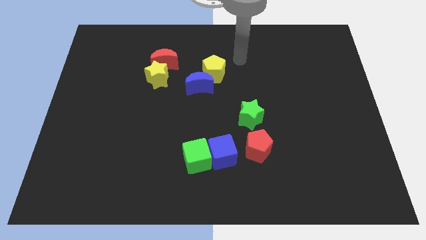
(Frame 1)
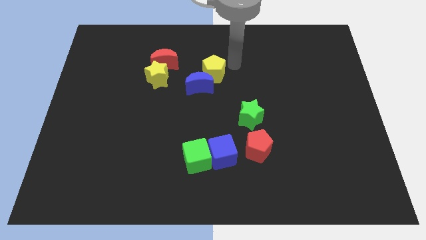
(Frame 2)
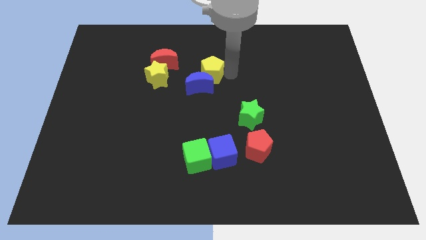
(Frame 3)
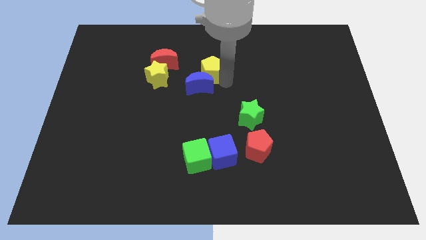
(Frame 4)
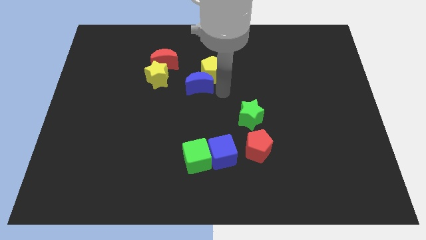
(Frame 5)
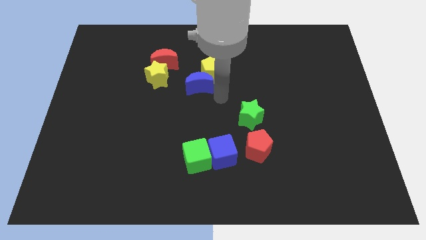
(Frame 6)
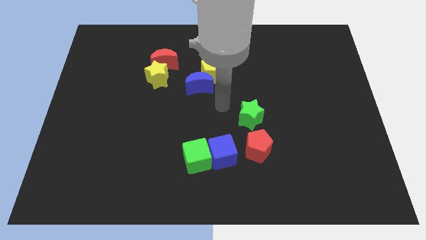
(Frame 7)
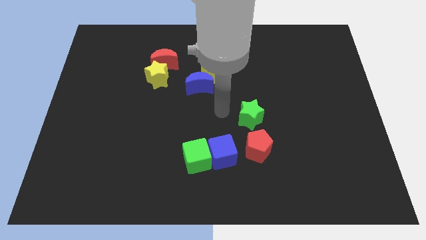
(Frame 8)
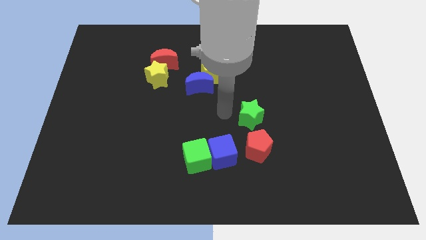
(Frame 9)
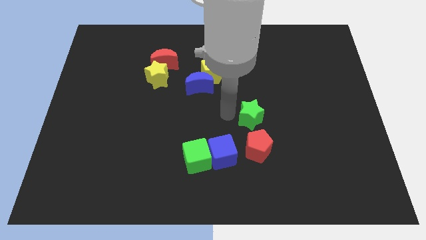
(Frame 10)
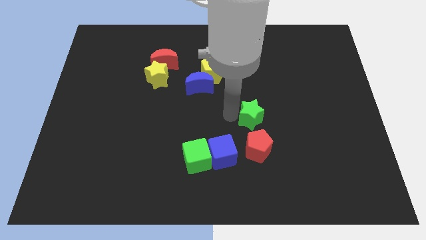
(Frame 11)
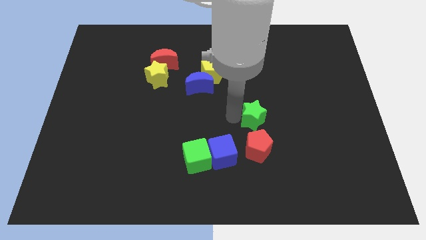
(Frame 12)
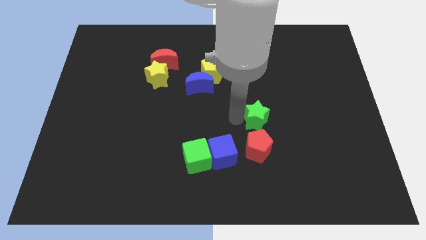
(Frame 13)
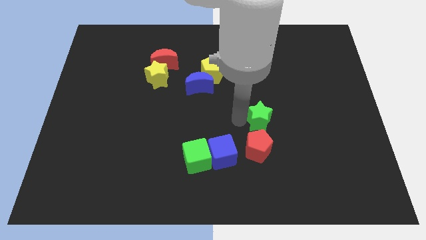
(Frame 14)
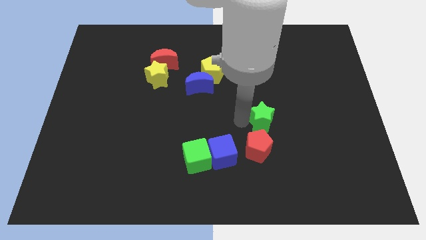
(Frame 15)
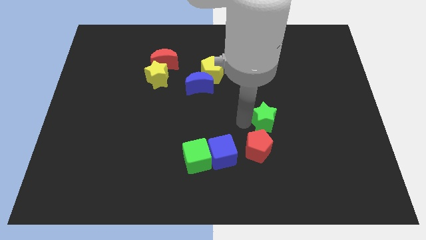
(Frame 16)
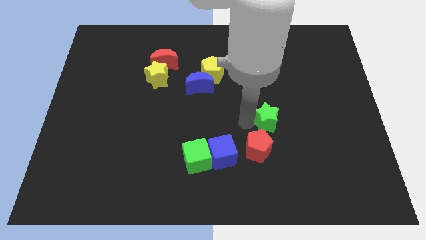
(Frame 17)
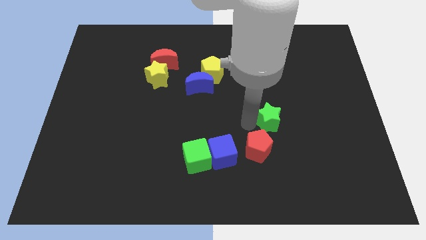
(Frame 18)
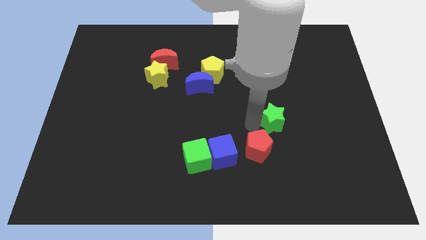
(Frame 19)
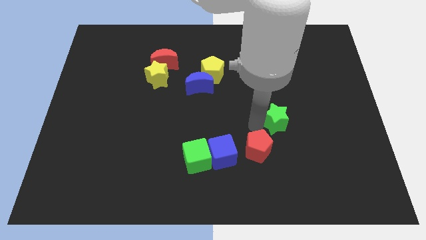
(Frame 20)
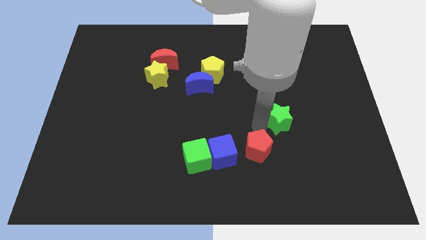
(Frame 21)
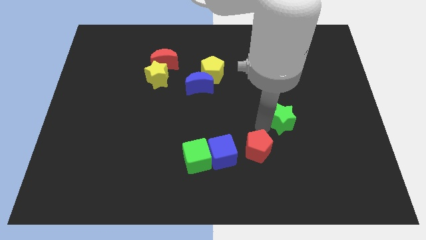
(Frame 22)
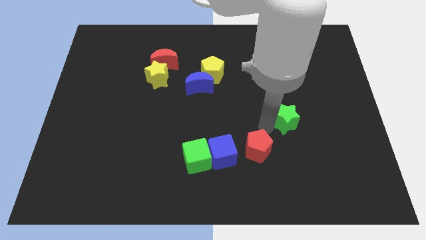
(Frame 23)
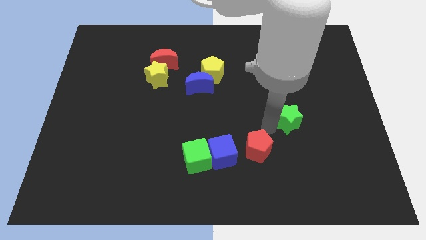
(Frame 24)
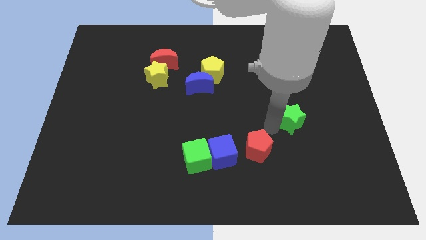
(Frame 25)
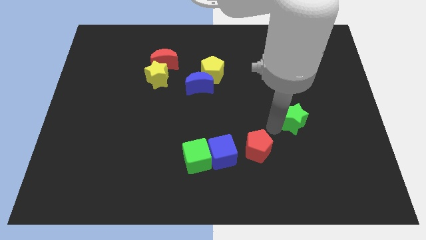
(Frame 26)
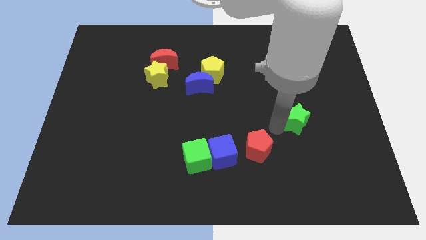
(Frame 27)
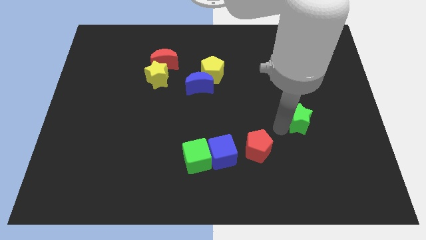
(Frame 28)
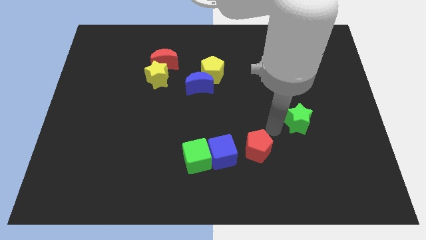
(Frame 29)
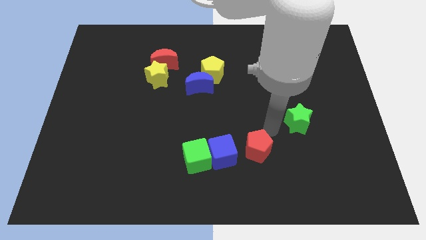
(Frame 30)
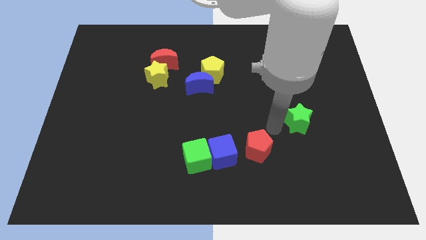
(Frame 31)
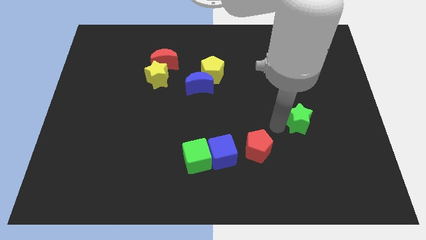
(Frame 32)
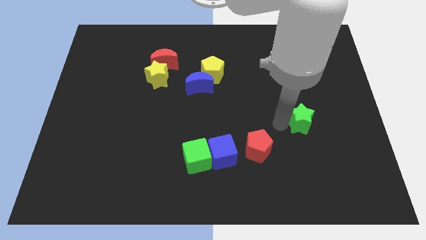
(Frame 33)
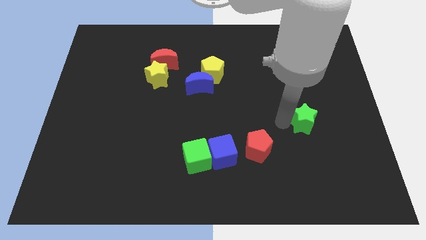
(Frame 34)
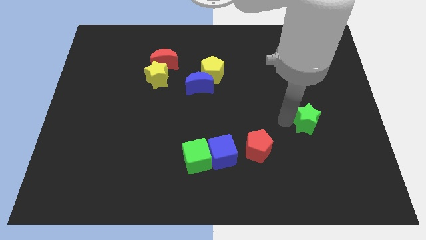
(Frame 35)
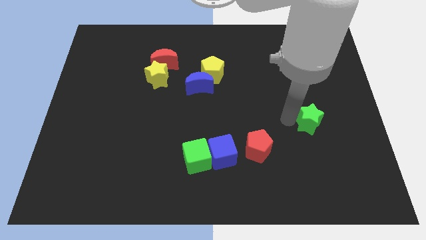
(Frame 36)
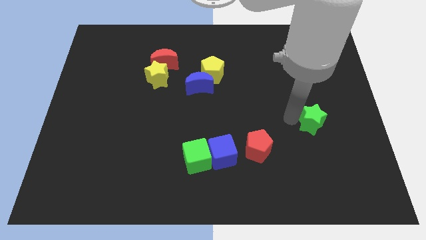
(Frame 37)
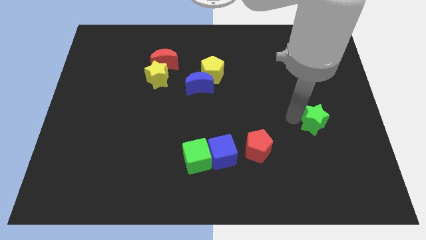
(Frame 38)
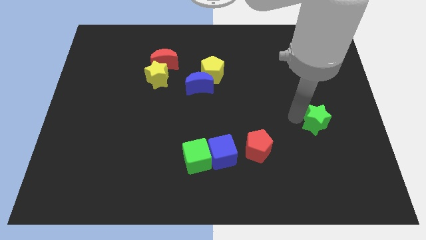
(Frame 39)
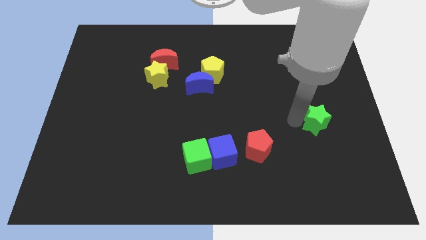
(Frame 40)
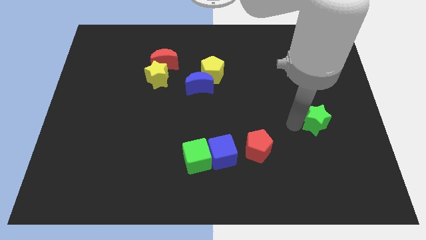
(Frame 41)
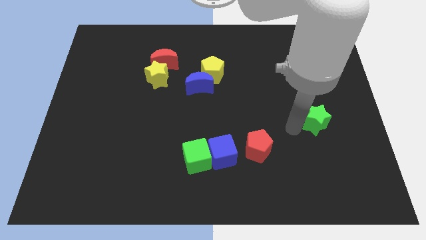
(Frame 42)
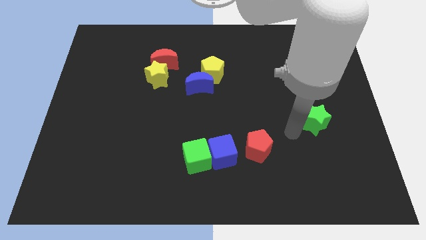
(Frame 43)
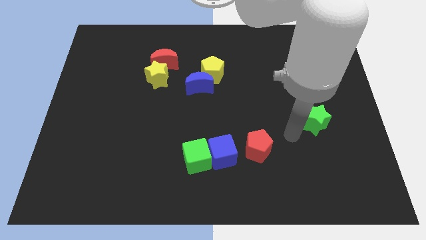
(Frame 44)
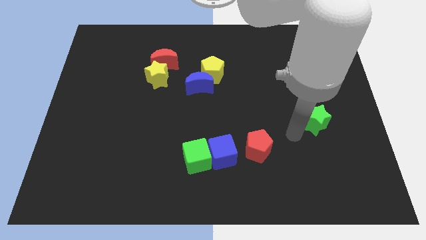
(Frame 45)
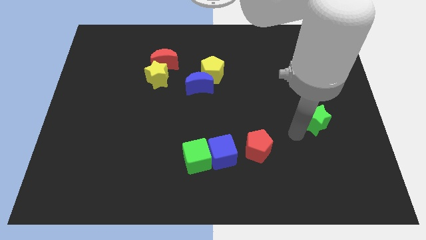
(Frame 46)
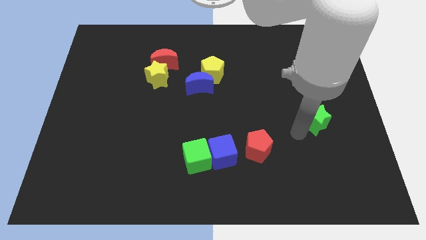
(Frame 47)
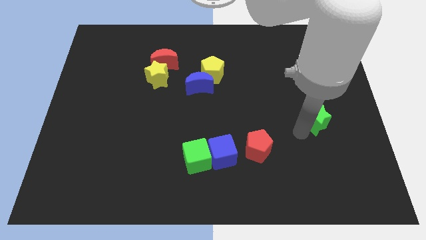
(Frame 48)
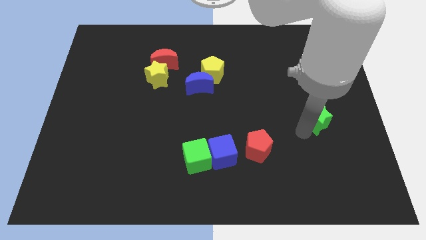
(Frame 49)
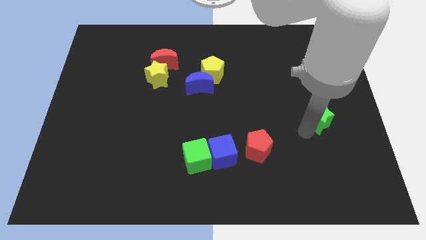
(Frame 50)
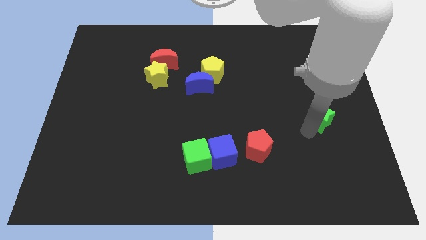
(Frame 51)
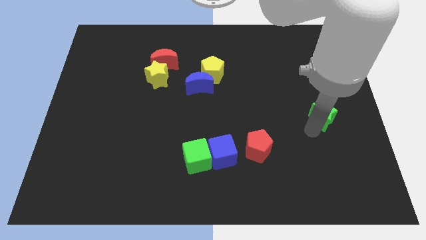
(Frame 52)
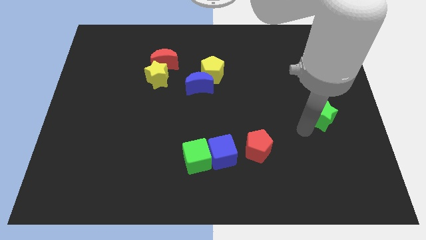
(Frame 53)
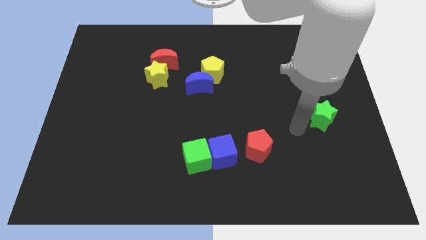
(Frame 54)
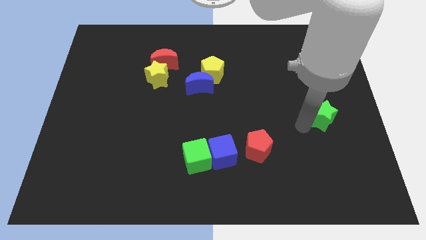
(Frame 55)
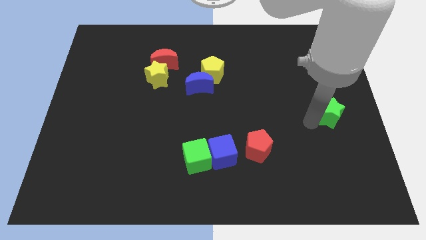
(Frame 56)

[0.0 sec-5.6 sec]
push the green star to the right side

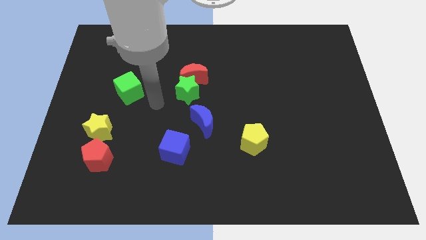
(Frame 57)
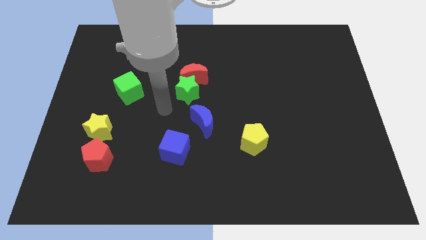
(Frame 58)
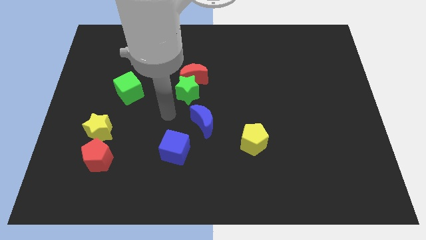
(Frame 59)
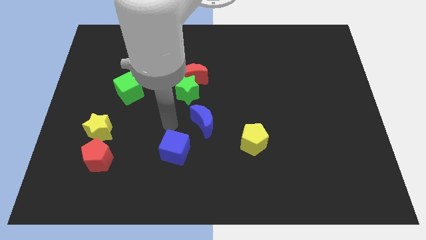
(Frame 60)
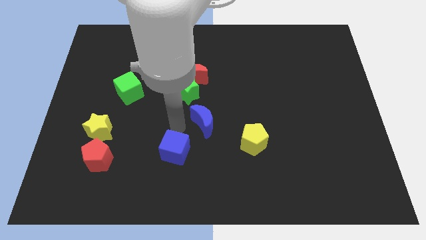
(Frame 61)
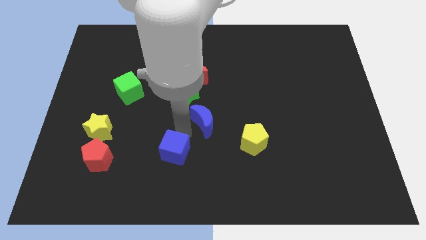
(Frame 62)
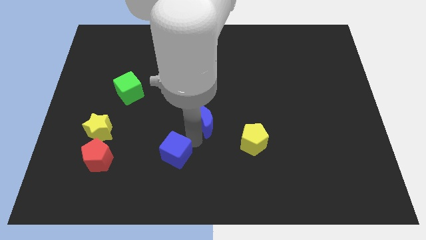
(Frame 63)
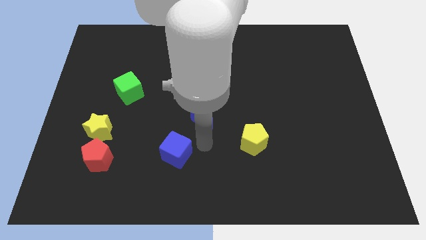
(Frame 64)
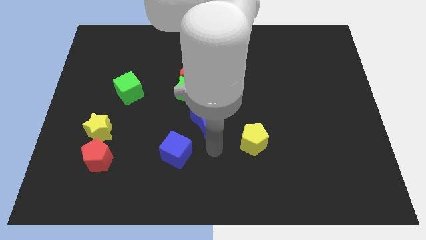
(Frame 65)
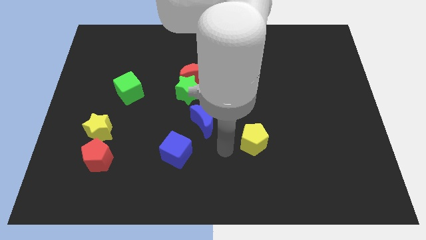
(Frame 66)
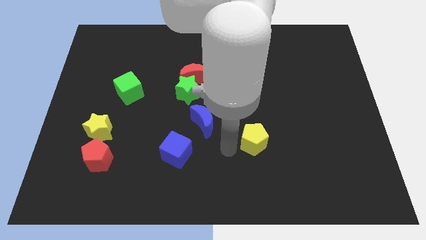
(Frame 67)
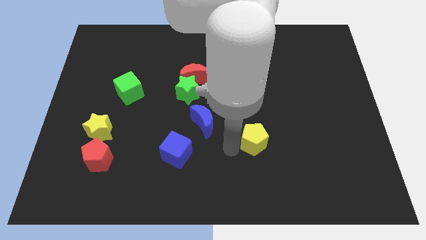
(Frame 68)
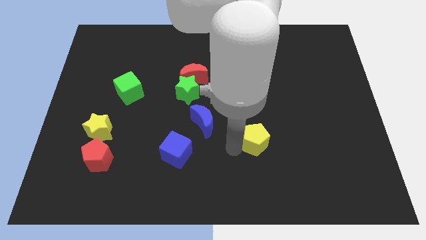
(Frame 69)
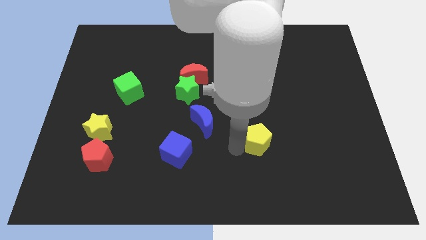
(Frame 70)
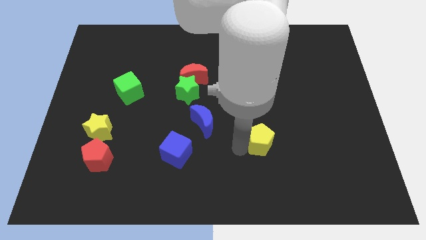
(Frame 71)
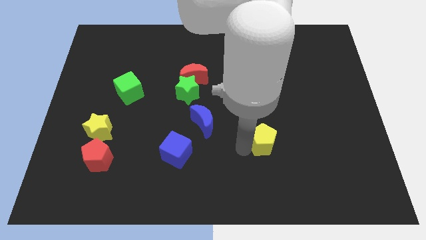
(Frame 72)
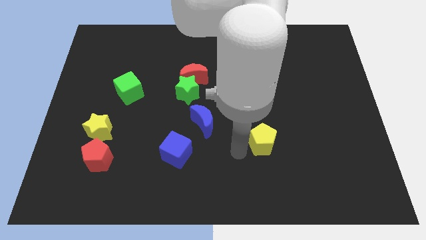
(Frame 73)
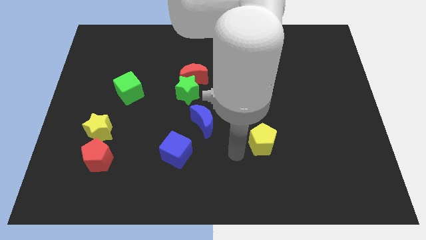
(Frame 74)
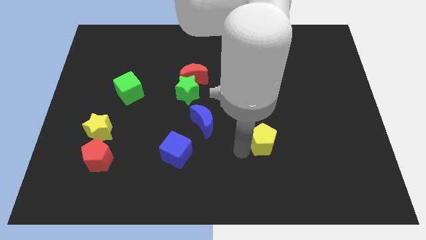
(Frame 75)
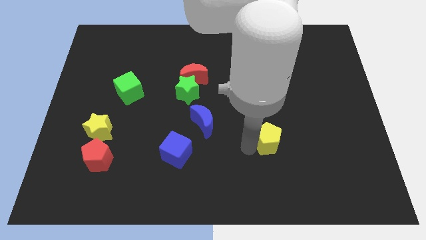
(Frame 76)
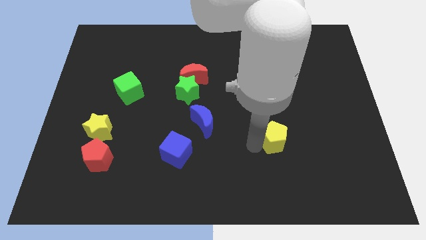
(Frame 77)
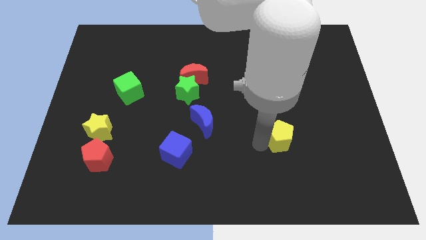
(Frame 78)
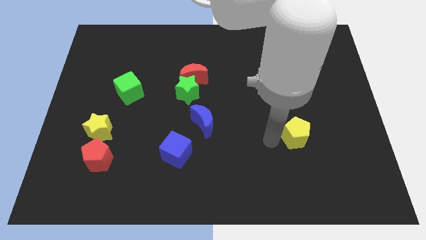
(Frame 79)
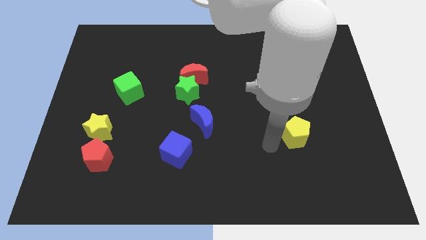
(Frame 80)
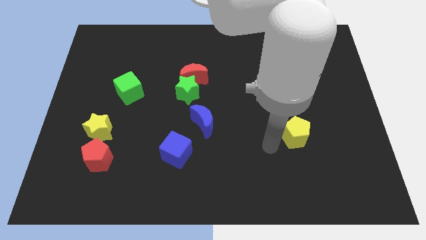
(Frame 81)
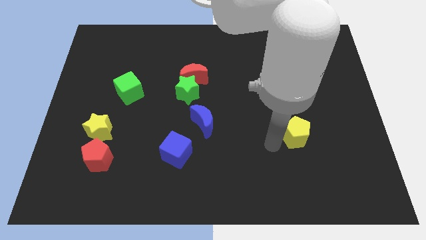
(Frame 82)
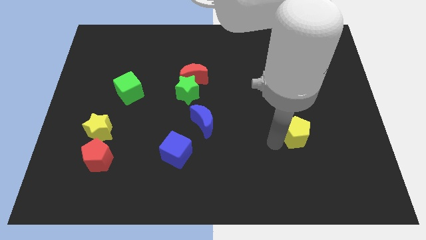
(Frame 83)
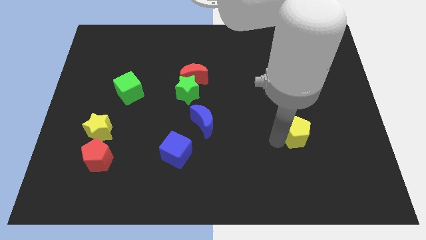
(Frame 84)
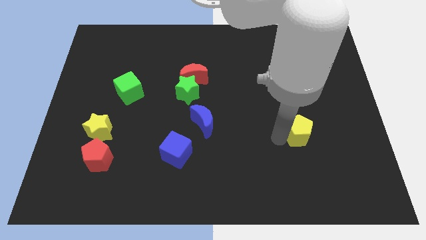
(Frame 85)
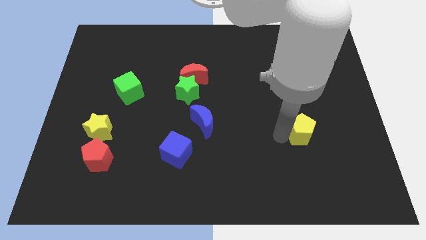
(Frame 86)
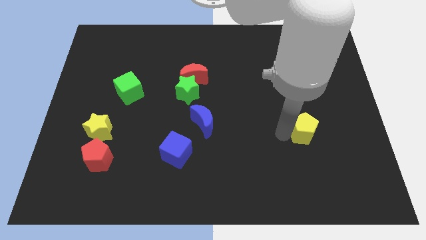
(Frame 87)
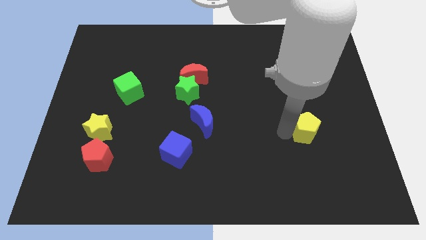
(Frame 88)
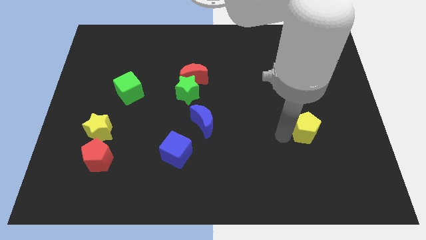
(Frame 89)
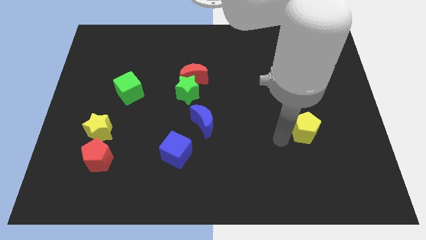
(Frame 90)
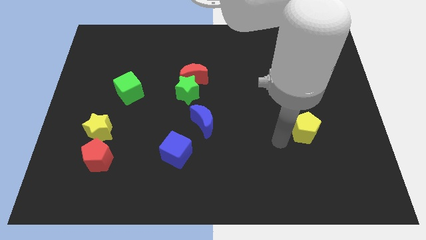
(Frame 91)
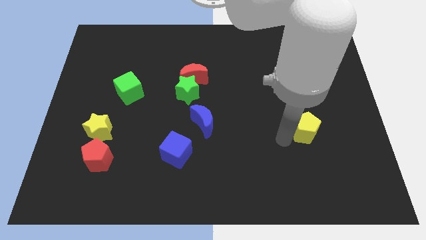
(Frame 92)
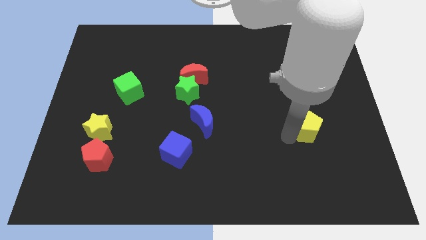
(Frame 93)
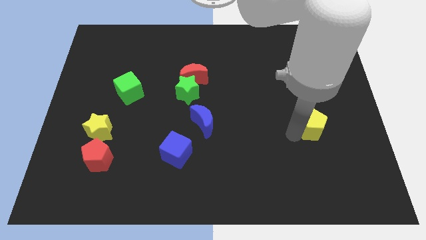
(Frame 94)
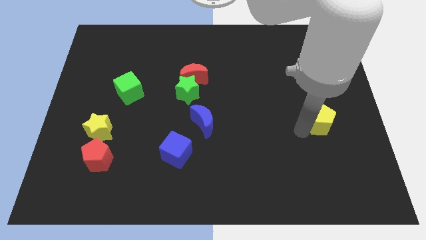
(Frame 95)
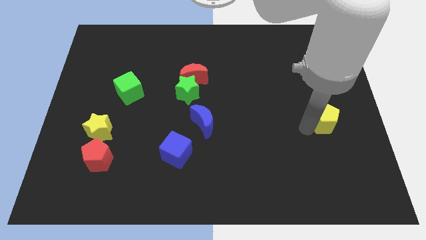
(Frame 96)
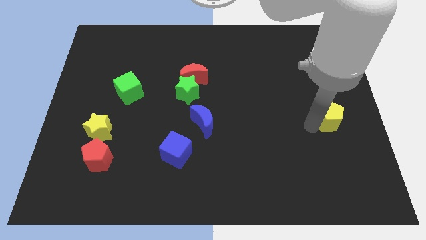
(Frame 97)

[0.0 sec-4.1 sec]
push the yellow pentagon to the right side of the board
